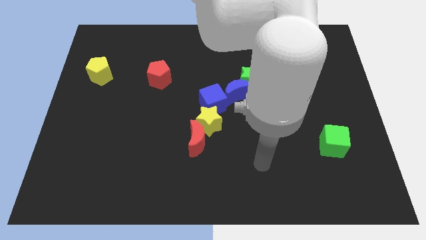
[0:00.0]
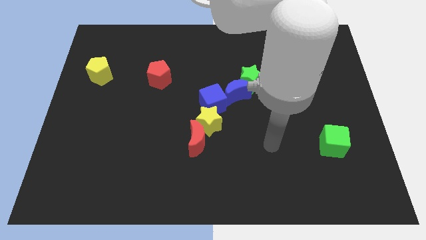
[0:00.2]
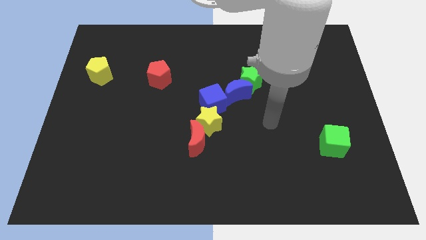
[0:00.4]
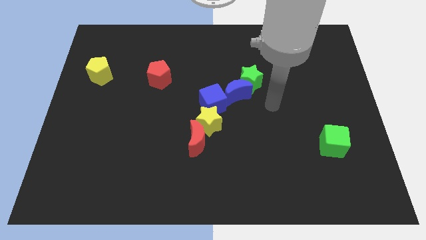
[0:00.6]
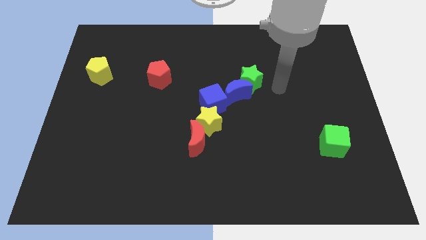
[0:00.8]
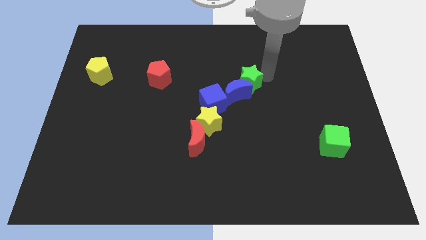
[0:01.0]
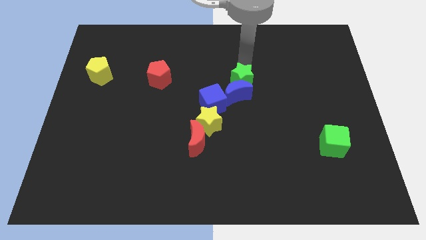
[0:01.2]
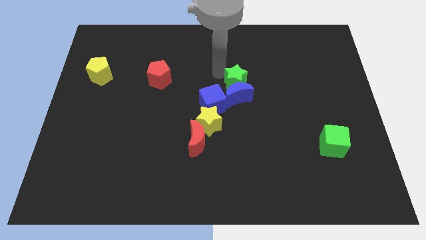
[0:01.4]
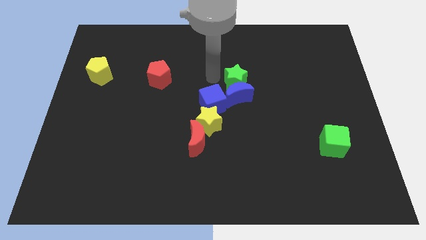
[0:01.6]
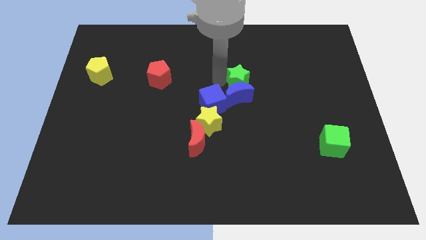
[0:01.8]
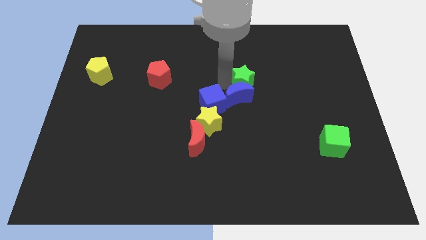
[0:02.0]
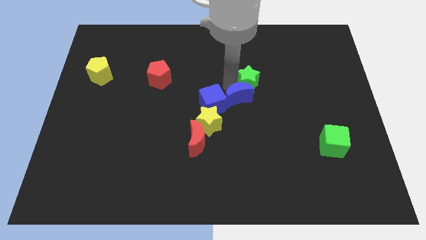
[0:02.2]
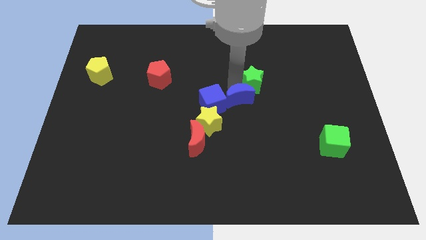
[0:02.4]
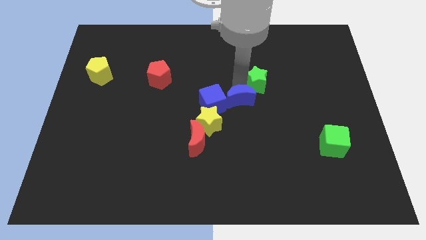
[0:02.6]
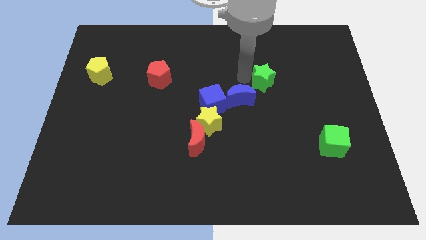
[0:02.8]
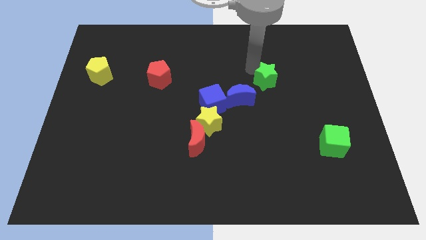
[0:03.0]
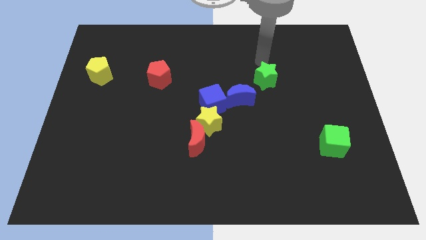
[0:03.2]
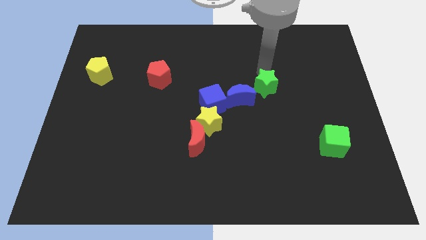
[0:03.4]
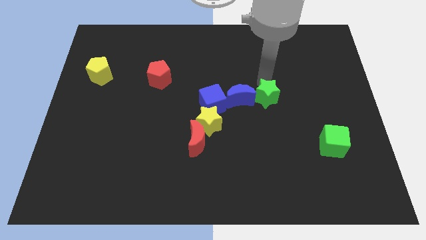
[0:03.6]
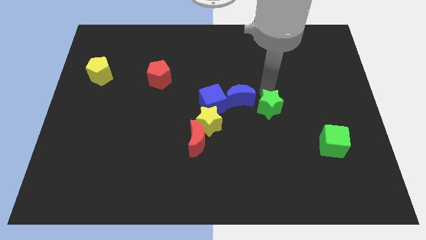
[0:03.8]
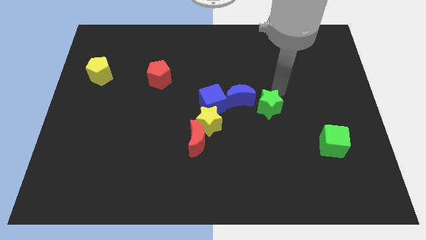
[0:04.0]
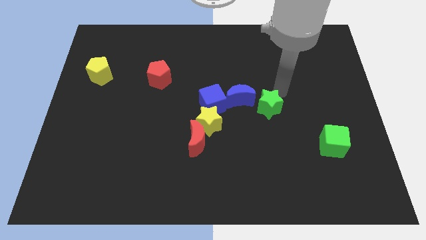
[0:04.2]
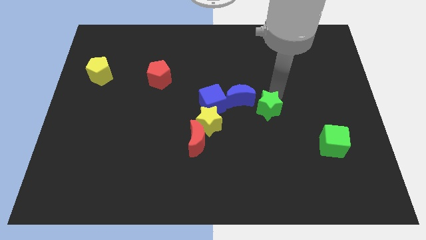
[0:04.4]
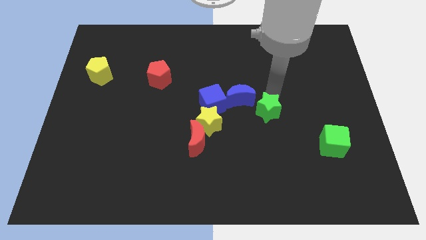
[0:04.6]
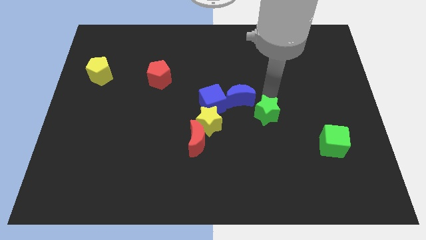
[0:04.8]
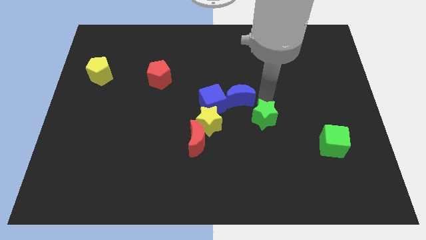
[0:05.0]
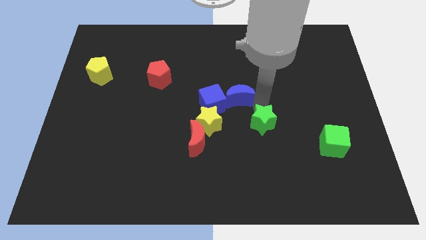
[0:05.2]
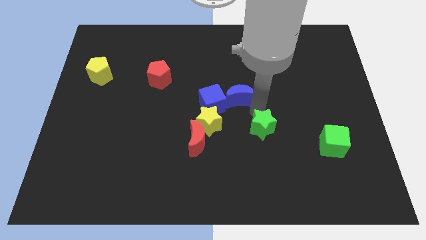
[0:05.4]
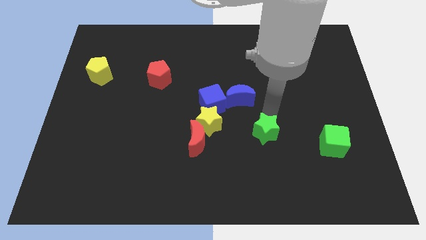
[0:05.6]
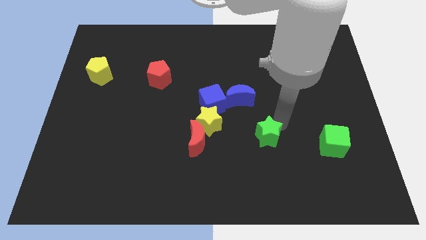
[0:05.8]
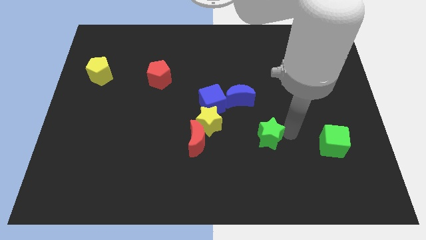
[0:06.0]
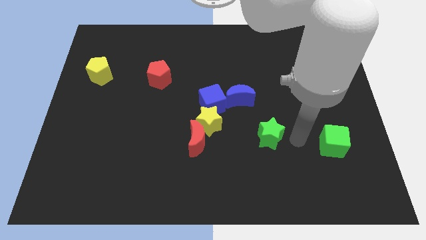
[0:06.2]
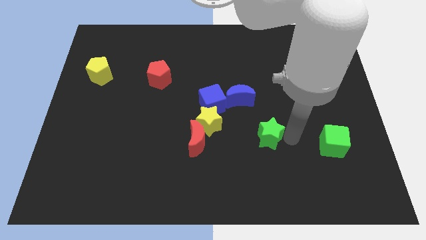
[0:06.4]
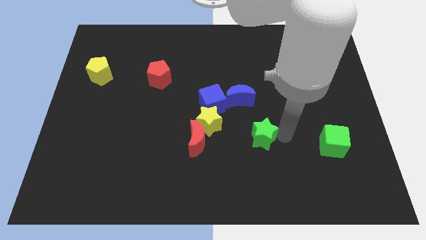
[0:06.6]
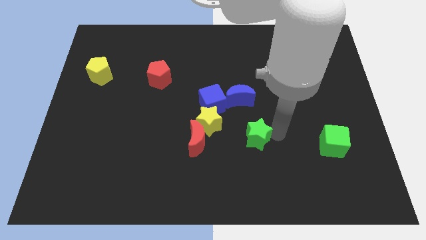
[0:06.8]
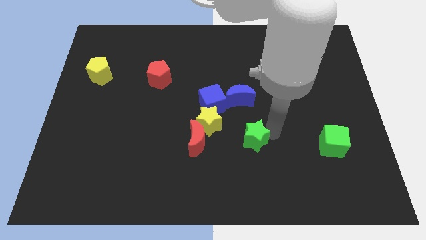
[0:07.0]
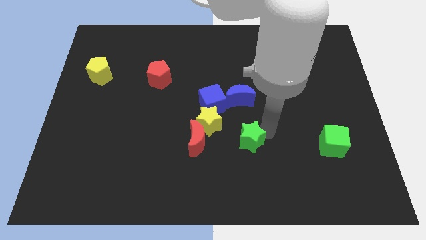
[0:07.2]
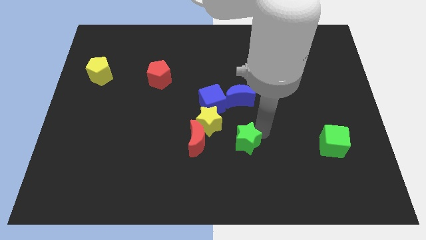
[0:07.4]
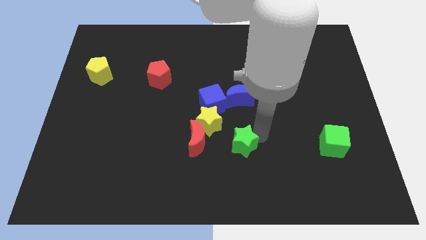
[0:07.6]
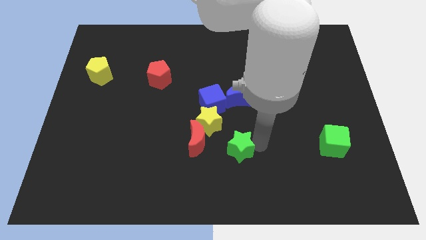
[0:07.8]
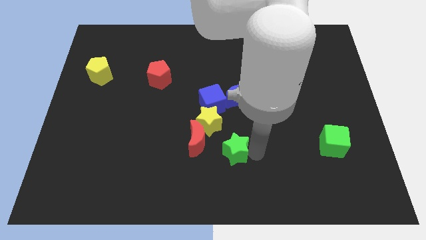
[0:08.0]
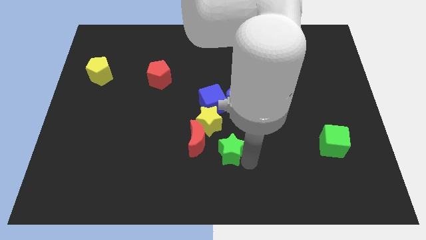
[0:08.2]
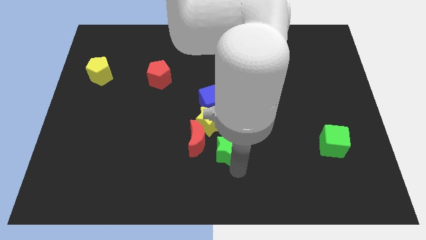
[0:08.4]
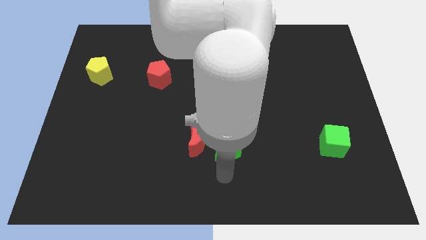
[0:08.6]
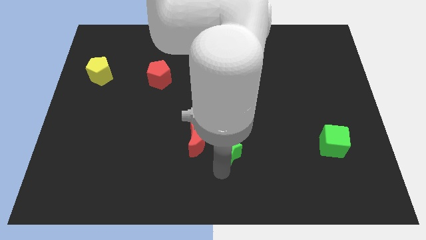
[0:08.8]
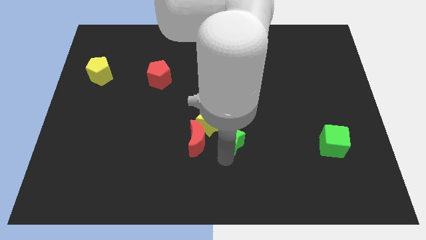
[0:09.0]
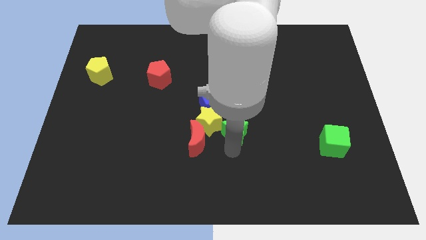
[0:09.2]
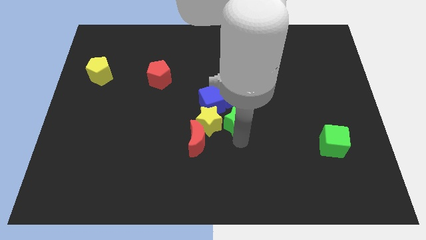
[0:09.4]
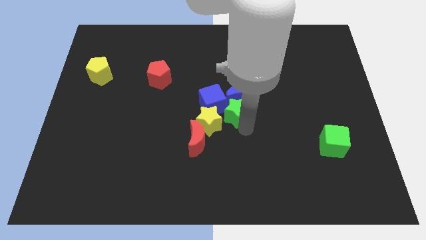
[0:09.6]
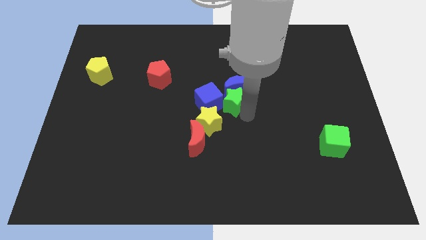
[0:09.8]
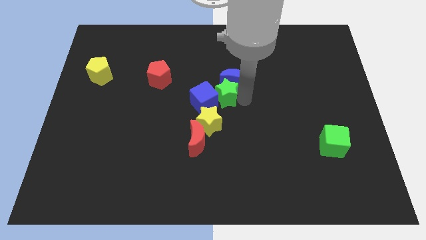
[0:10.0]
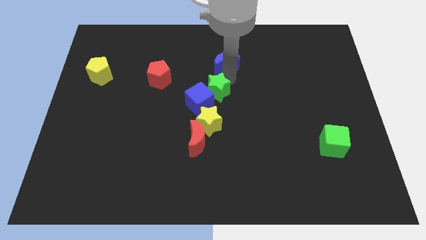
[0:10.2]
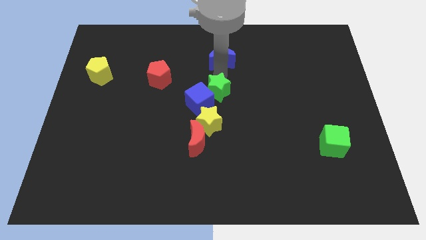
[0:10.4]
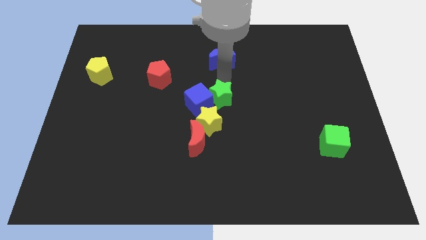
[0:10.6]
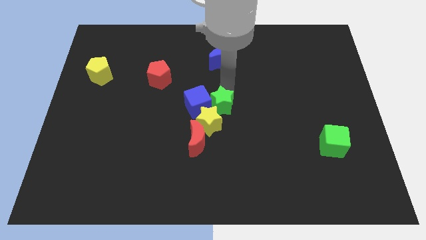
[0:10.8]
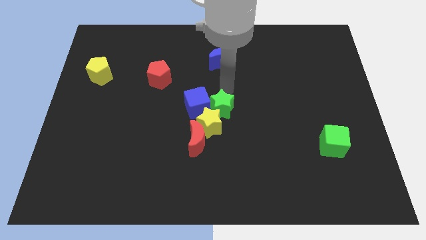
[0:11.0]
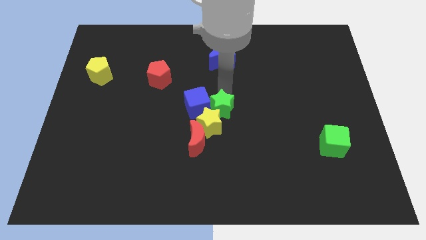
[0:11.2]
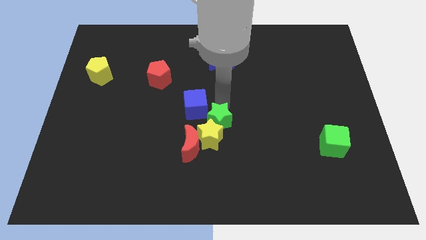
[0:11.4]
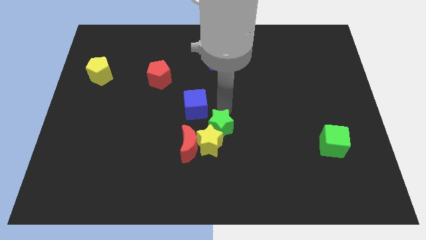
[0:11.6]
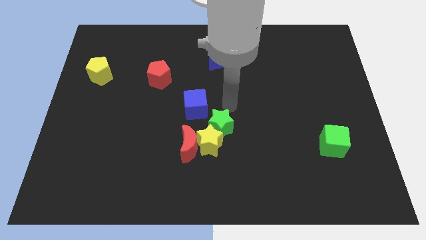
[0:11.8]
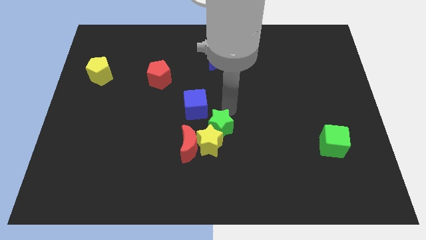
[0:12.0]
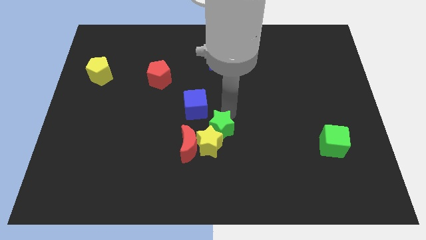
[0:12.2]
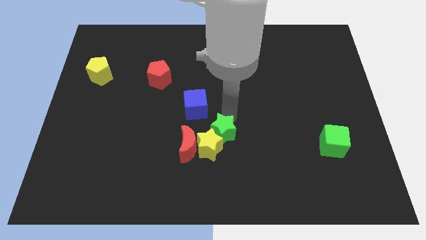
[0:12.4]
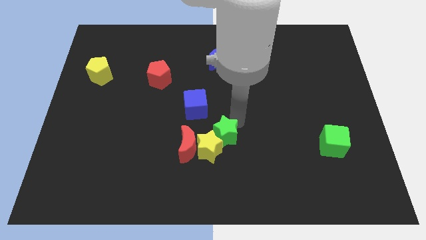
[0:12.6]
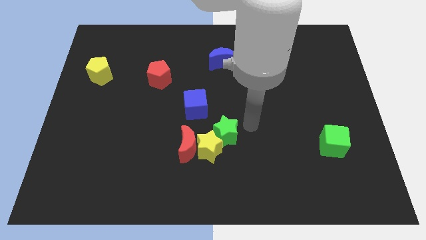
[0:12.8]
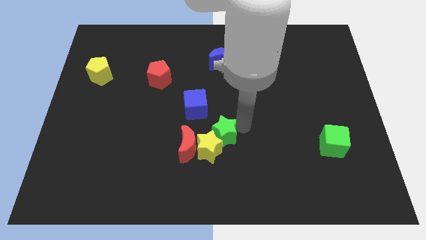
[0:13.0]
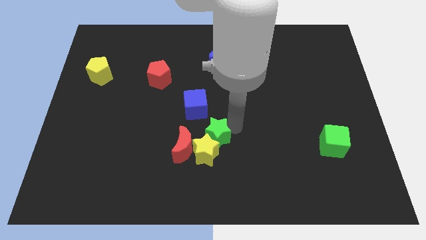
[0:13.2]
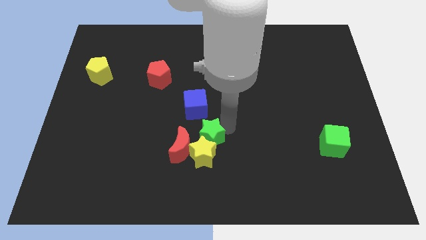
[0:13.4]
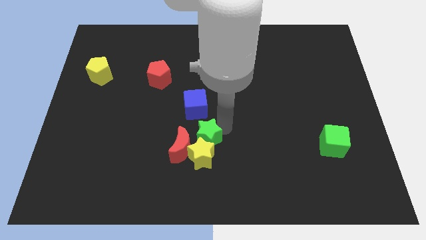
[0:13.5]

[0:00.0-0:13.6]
push the green star close to the red moon

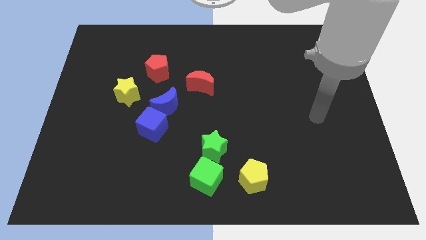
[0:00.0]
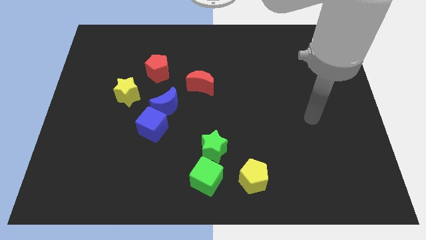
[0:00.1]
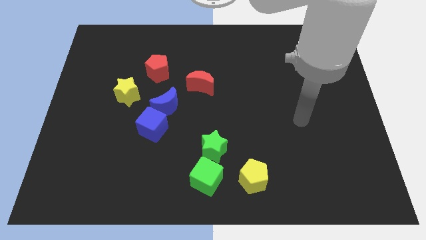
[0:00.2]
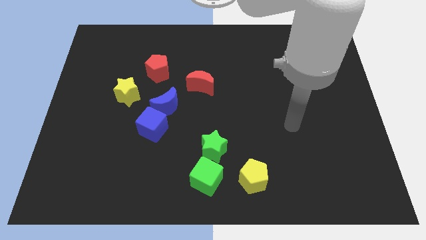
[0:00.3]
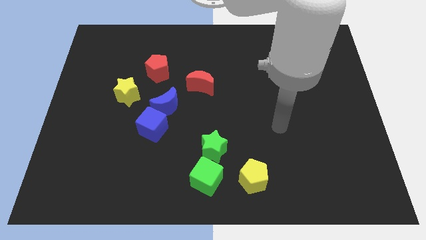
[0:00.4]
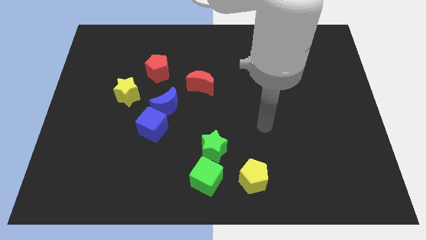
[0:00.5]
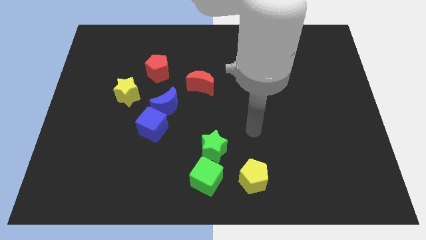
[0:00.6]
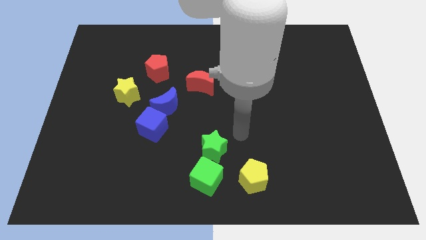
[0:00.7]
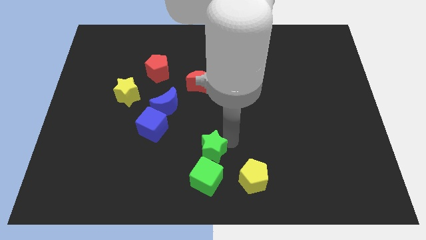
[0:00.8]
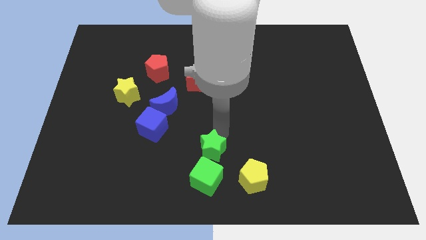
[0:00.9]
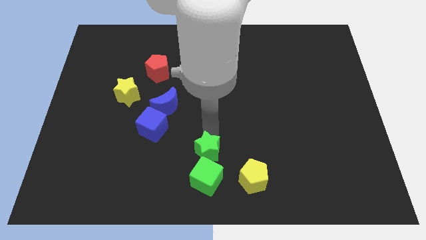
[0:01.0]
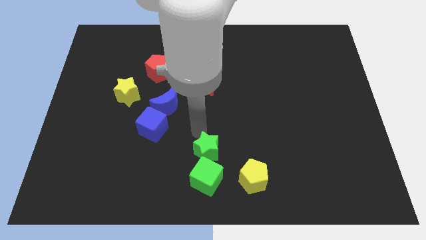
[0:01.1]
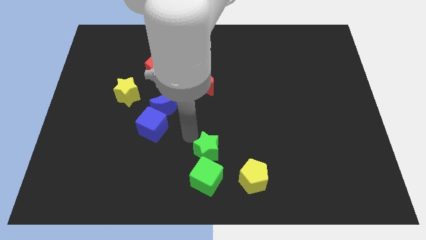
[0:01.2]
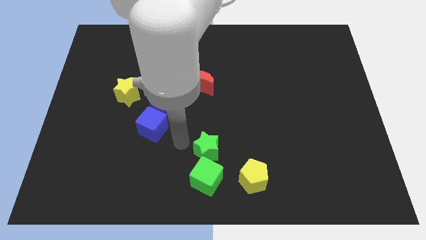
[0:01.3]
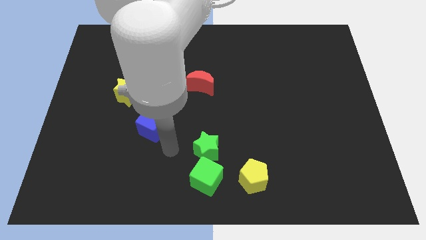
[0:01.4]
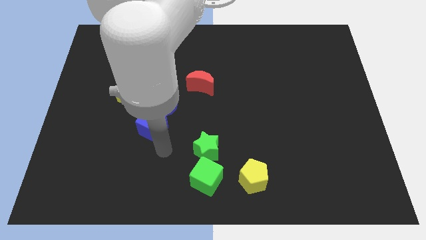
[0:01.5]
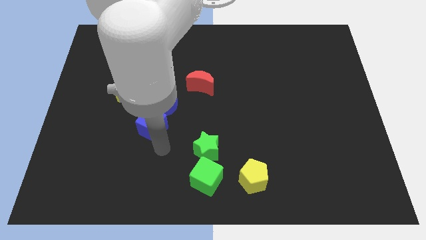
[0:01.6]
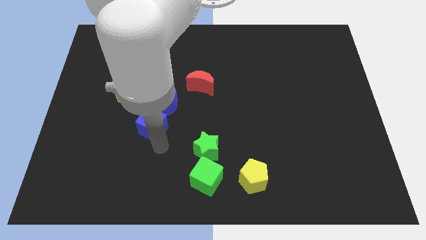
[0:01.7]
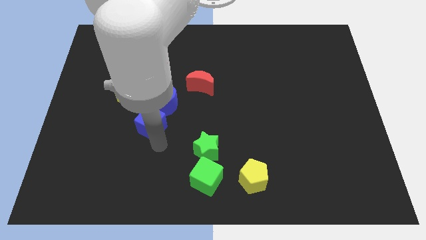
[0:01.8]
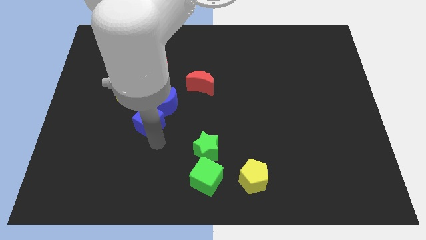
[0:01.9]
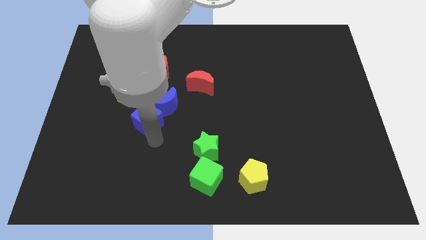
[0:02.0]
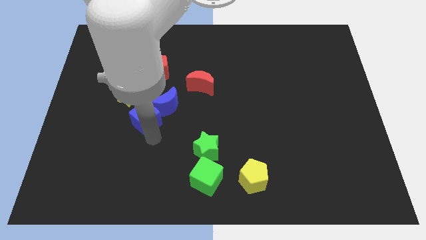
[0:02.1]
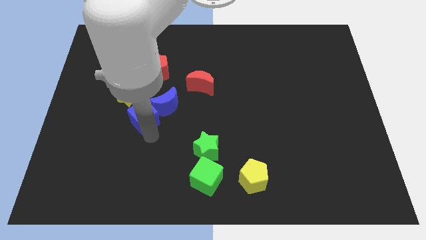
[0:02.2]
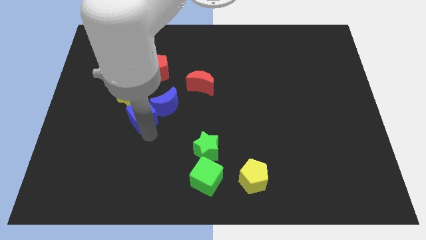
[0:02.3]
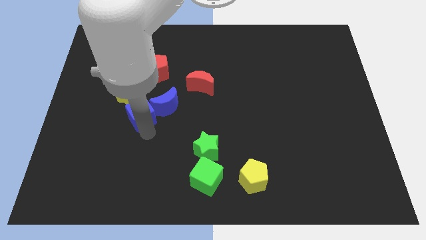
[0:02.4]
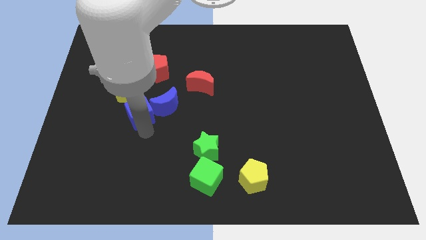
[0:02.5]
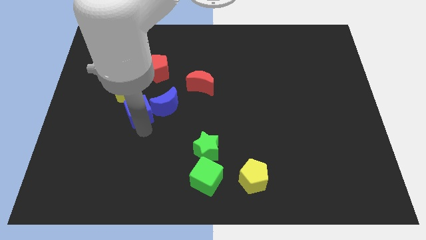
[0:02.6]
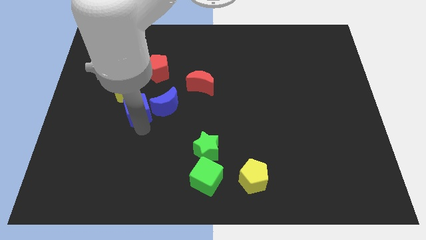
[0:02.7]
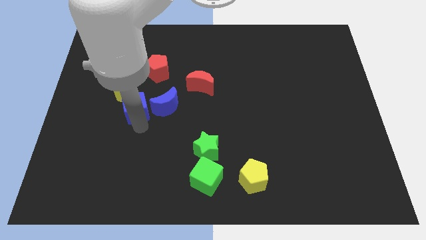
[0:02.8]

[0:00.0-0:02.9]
push the blue cube next to the yellow star
